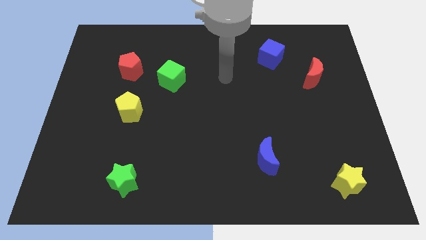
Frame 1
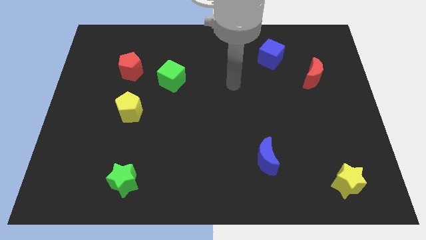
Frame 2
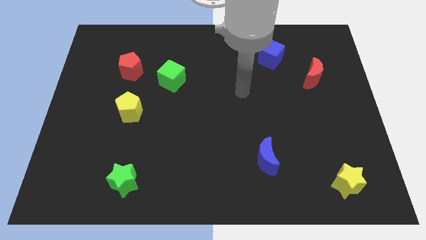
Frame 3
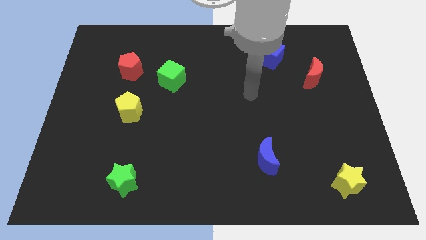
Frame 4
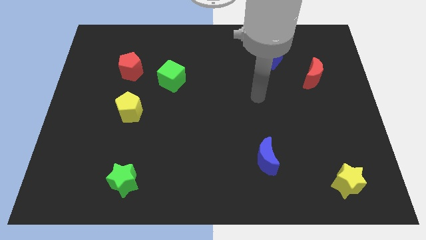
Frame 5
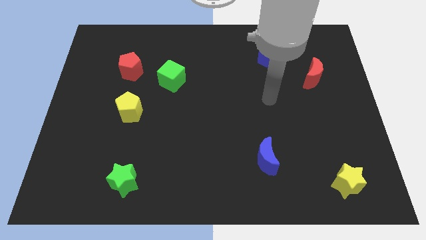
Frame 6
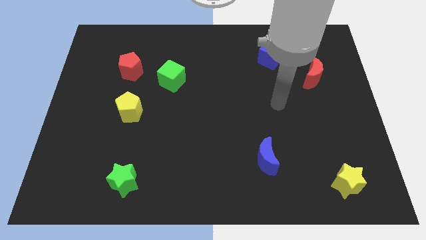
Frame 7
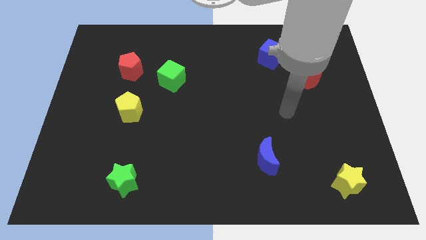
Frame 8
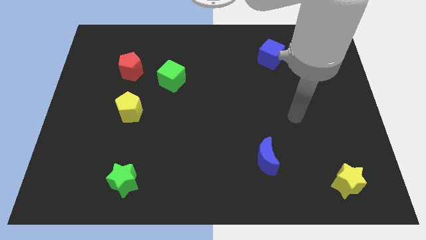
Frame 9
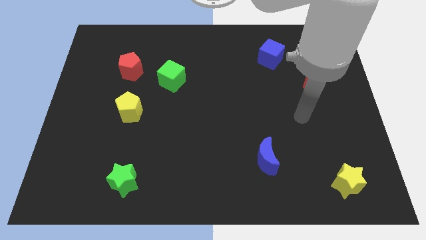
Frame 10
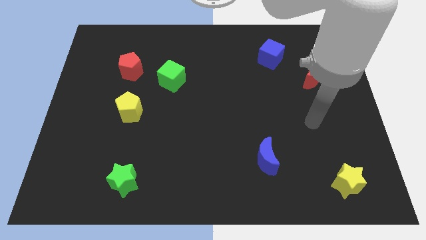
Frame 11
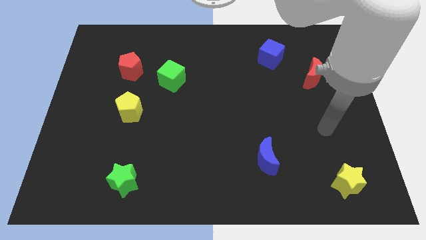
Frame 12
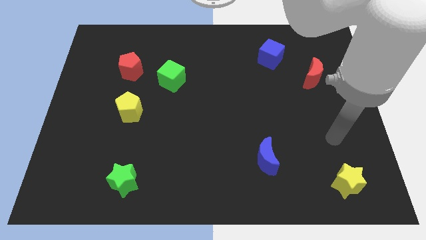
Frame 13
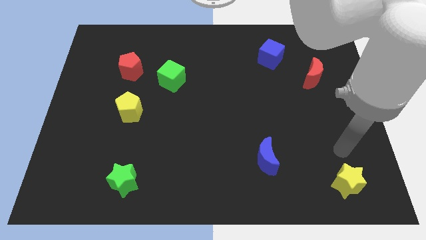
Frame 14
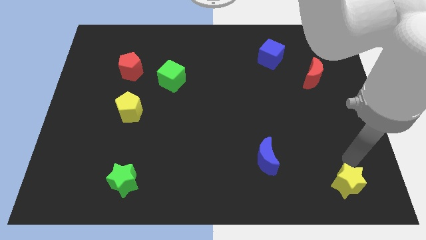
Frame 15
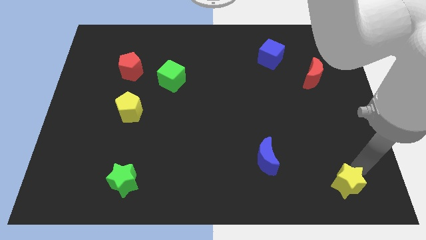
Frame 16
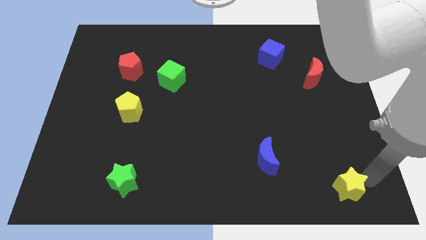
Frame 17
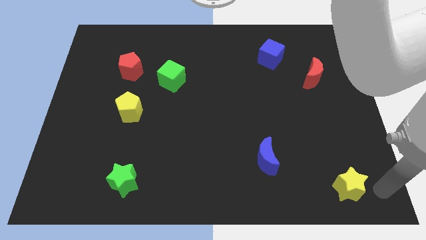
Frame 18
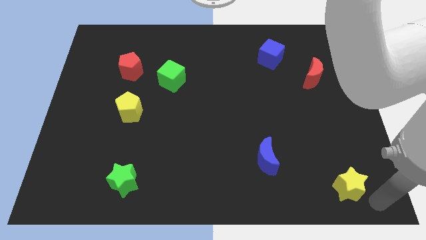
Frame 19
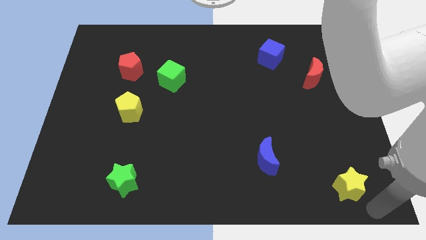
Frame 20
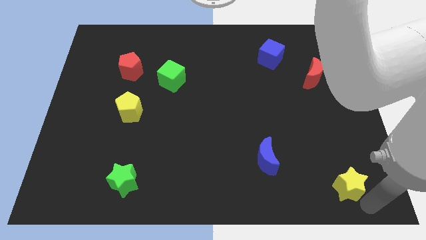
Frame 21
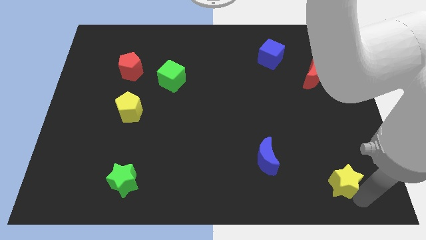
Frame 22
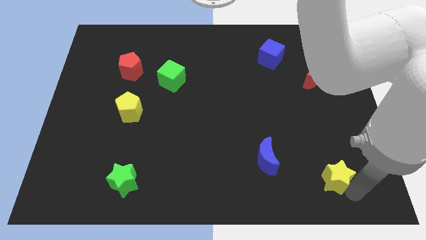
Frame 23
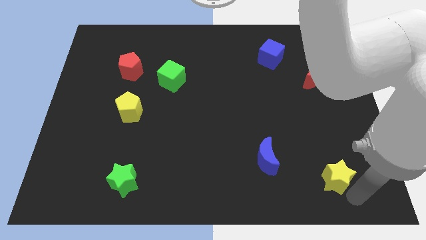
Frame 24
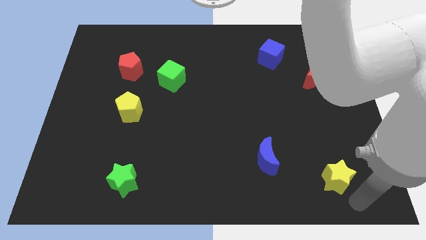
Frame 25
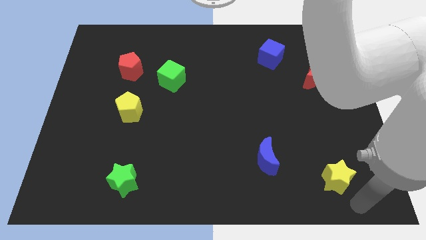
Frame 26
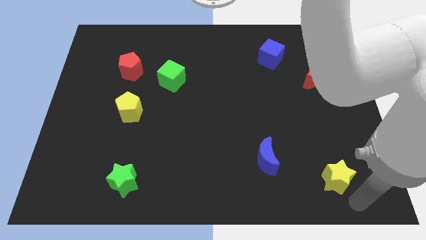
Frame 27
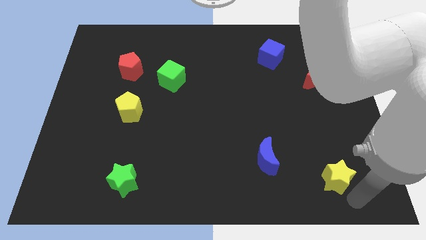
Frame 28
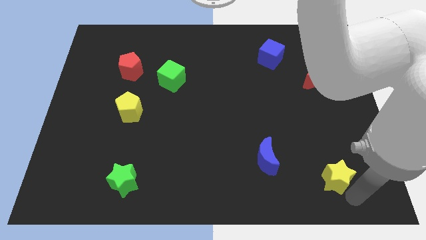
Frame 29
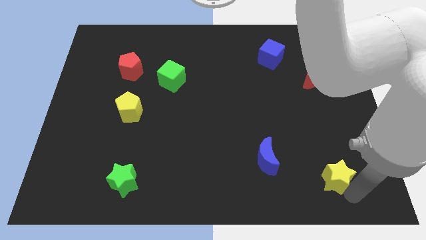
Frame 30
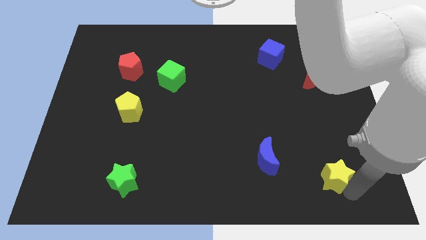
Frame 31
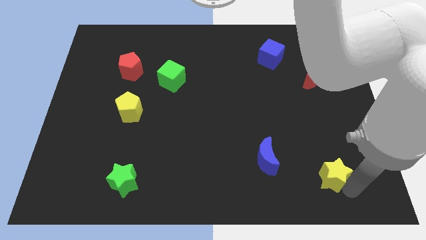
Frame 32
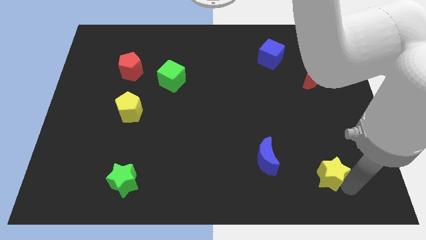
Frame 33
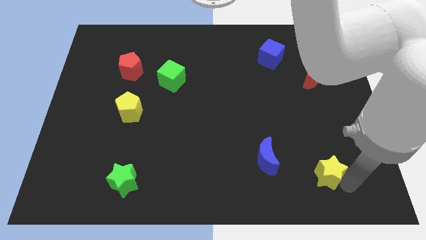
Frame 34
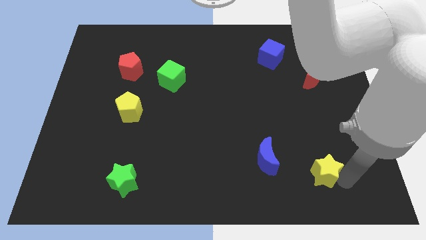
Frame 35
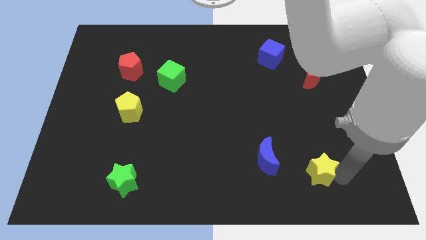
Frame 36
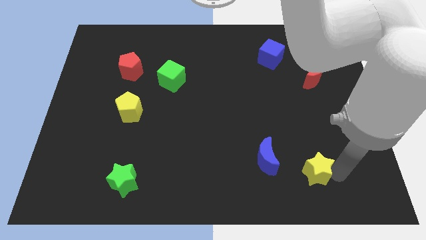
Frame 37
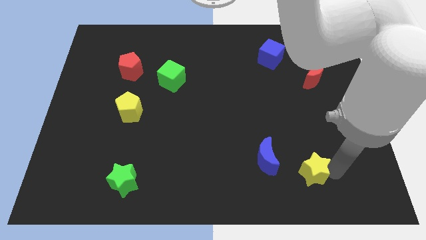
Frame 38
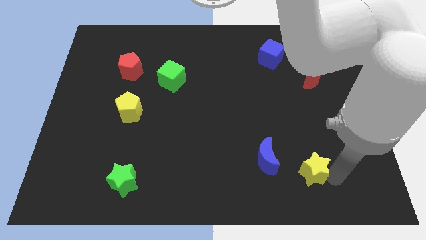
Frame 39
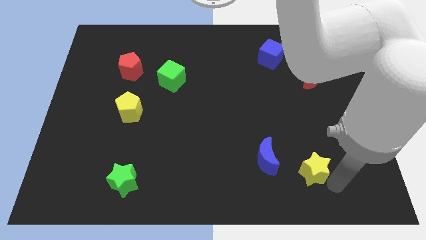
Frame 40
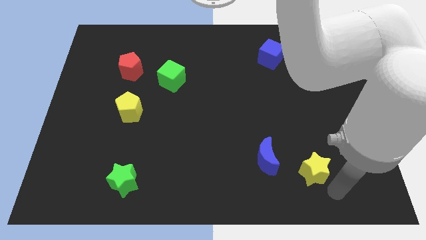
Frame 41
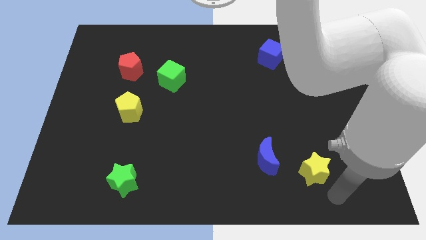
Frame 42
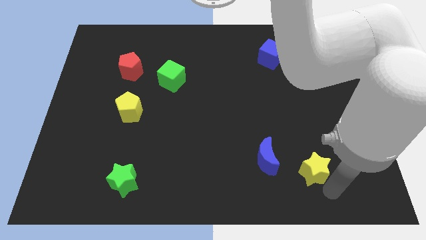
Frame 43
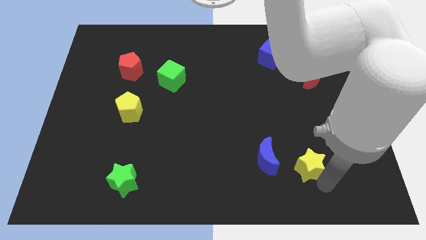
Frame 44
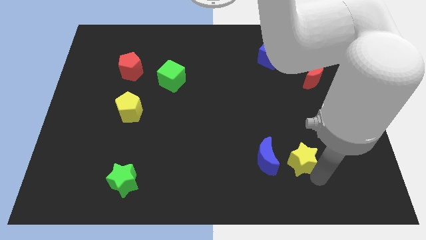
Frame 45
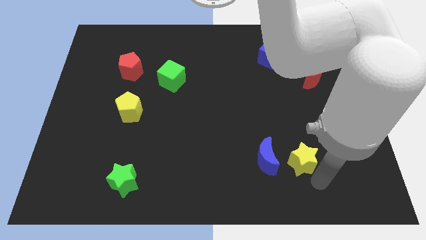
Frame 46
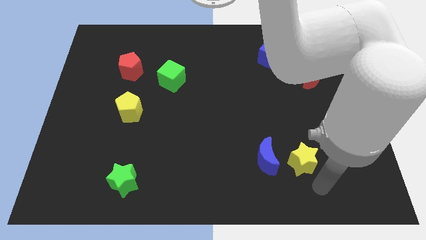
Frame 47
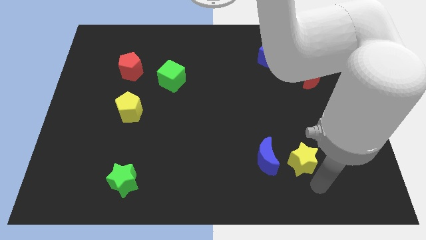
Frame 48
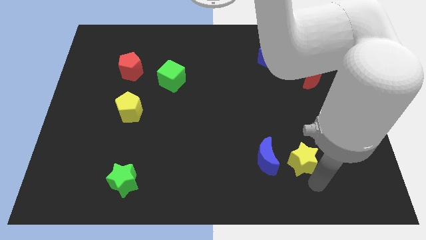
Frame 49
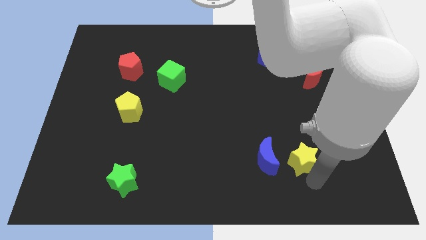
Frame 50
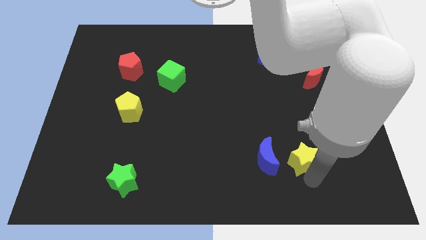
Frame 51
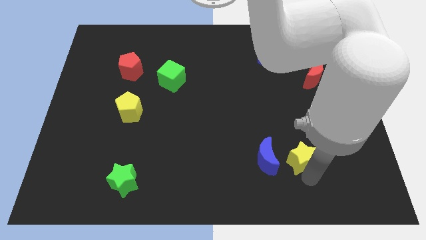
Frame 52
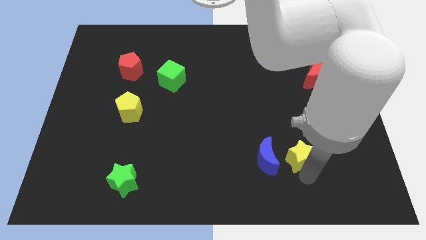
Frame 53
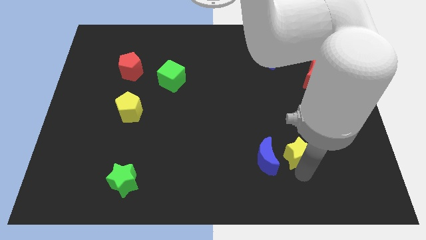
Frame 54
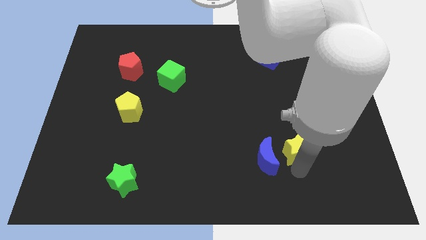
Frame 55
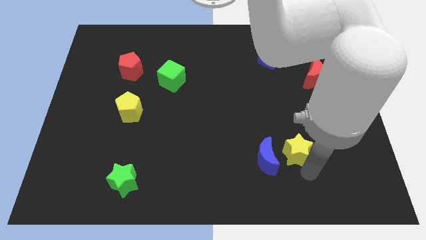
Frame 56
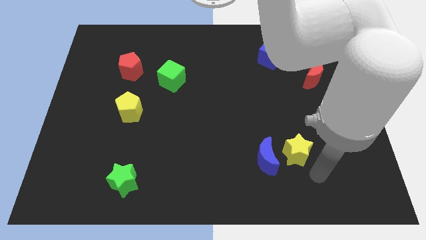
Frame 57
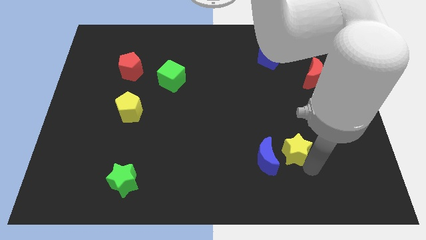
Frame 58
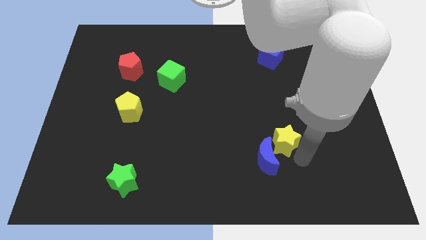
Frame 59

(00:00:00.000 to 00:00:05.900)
slide the yellow star to the top of the blue moon

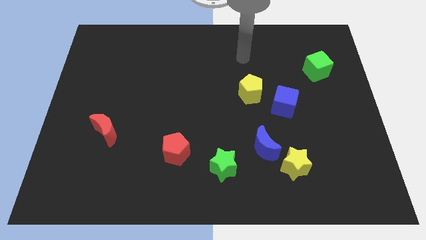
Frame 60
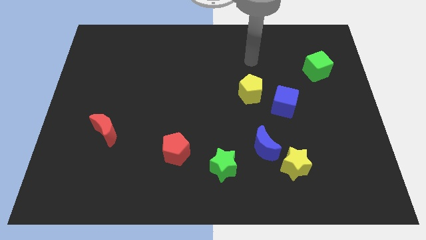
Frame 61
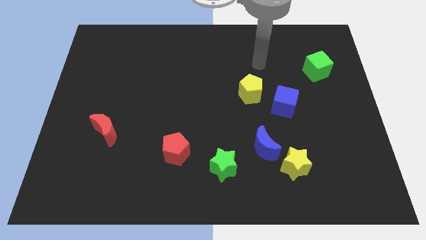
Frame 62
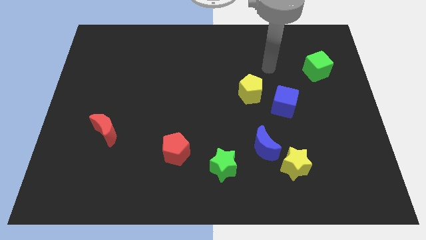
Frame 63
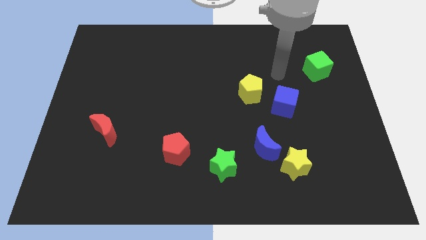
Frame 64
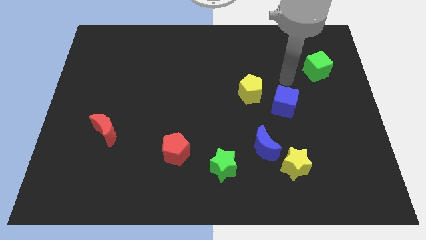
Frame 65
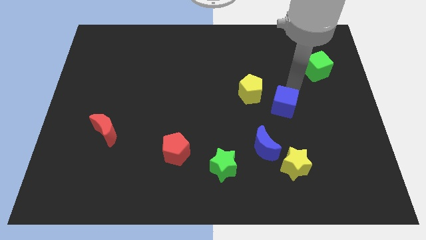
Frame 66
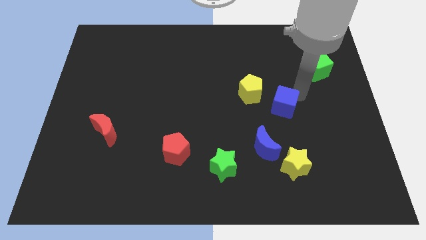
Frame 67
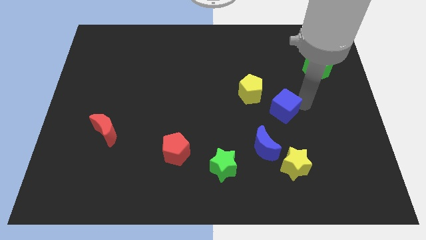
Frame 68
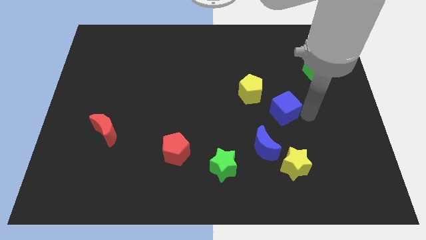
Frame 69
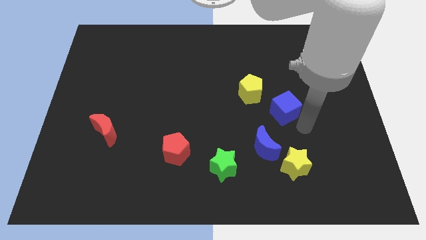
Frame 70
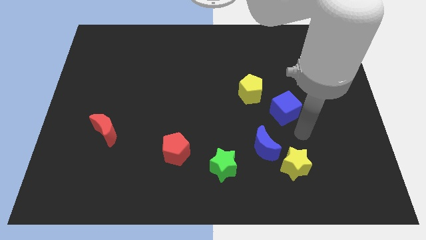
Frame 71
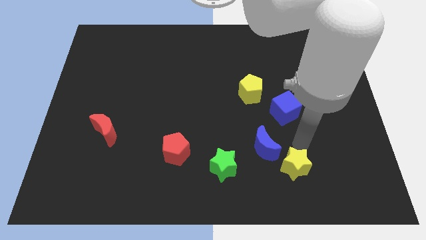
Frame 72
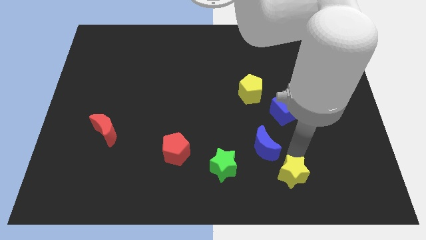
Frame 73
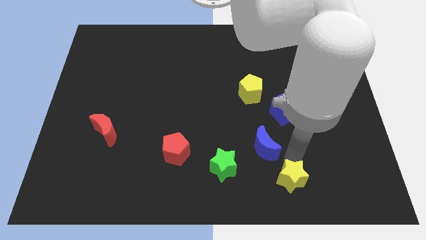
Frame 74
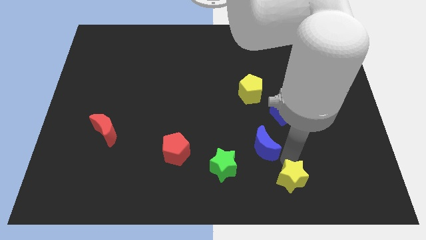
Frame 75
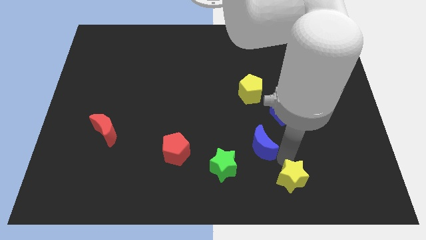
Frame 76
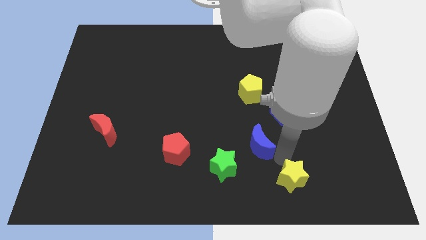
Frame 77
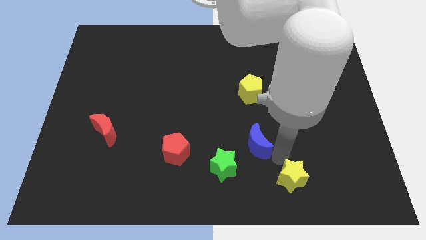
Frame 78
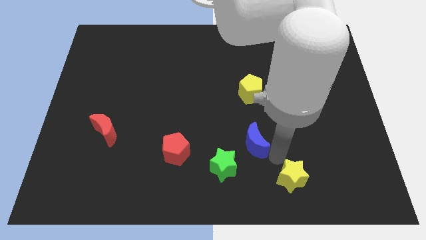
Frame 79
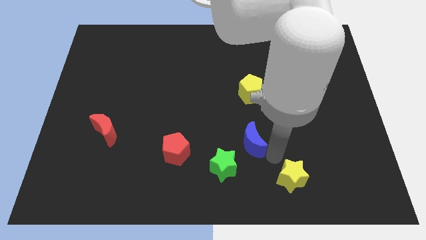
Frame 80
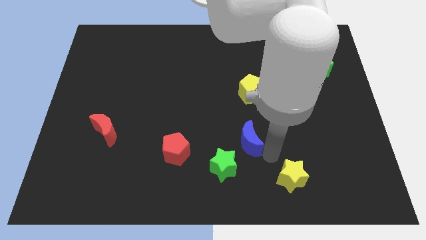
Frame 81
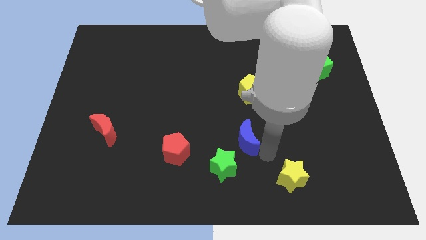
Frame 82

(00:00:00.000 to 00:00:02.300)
push the blue moon to the top side of the green star

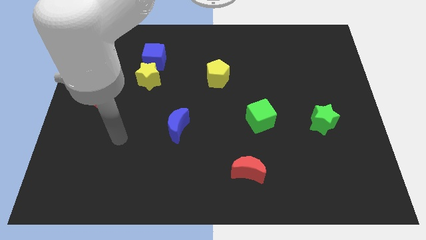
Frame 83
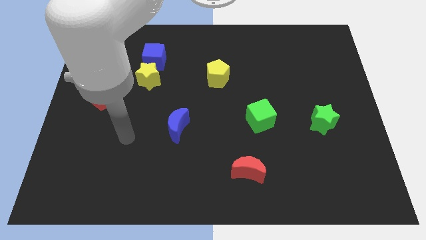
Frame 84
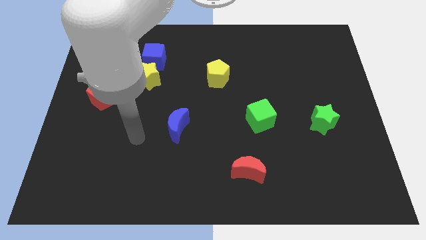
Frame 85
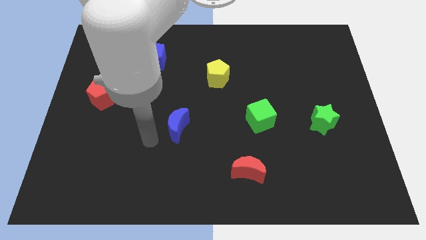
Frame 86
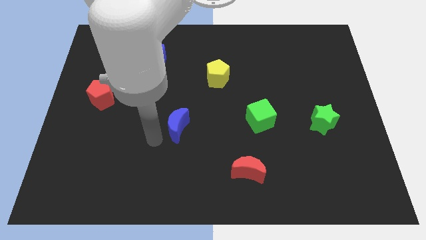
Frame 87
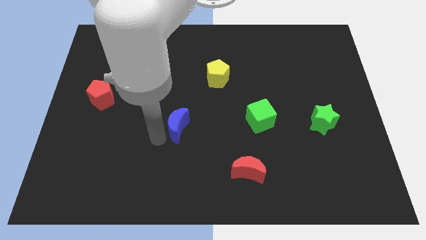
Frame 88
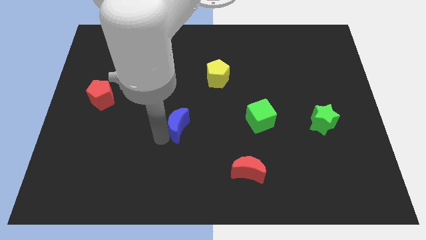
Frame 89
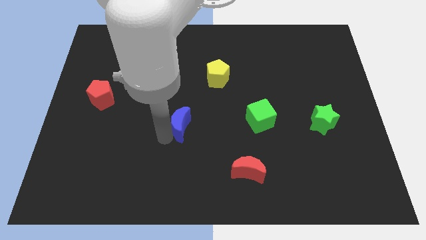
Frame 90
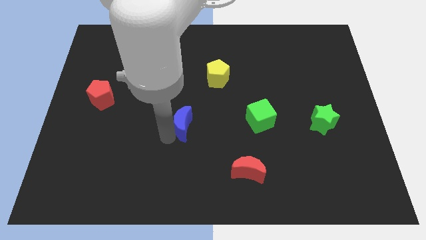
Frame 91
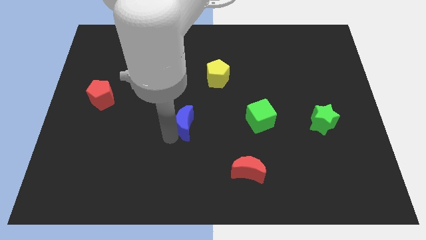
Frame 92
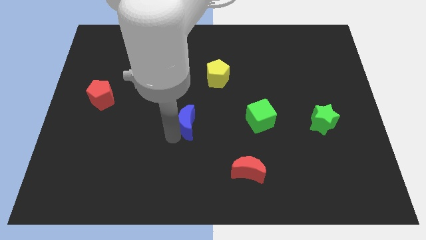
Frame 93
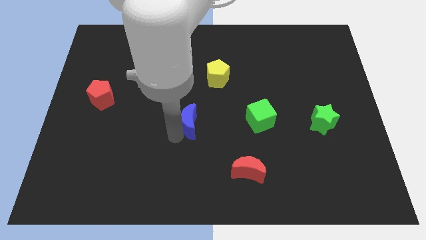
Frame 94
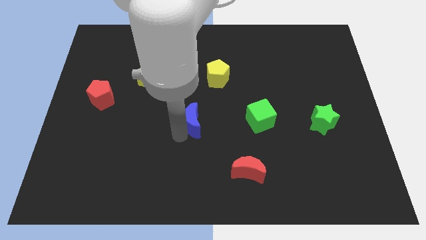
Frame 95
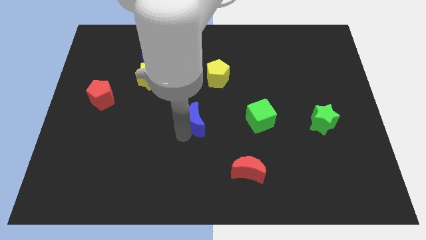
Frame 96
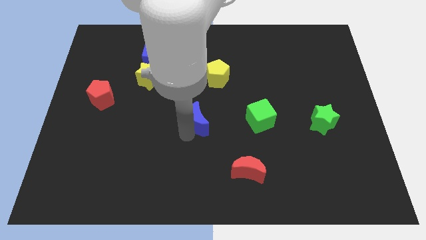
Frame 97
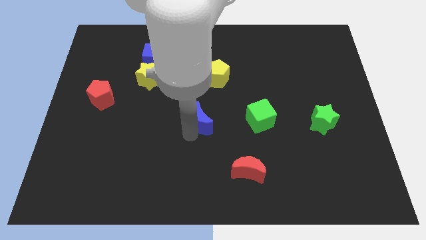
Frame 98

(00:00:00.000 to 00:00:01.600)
put the blue moon to the bottom side of the yellow pentagon
